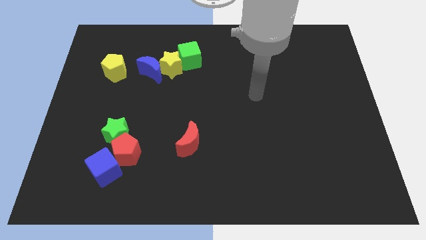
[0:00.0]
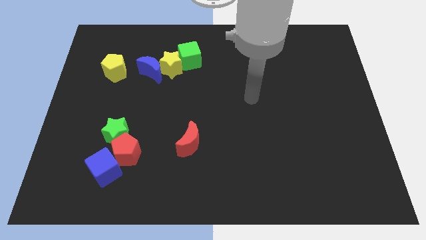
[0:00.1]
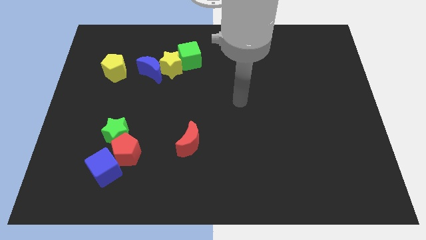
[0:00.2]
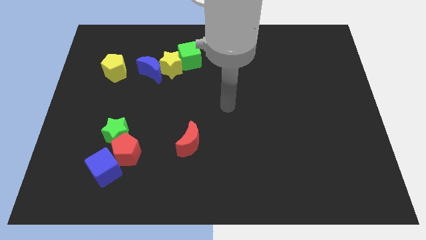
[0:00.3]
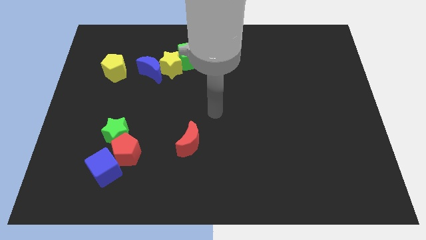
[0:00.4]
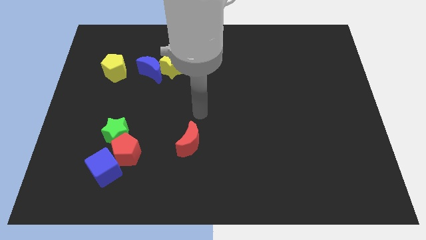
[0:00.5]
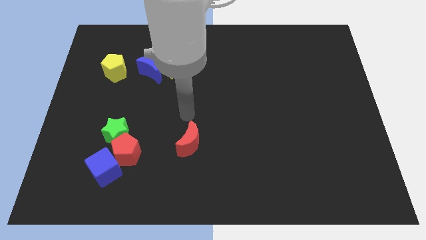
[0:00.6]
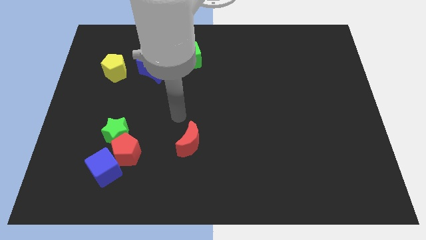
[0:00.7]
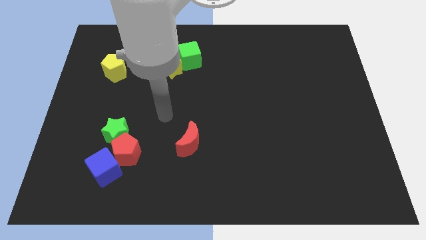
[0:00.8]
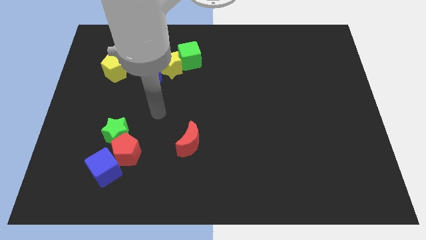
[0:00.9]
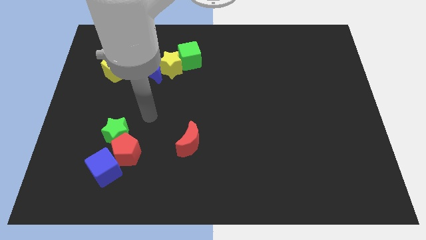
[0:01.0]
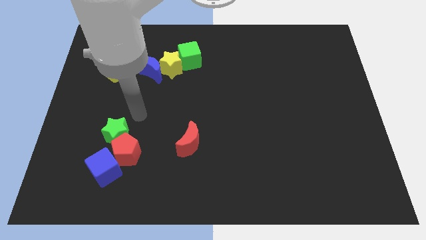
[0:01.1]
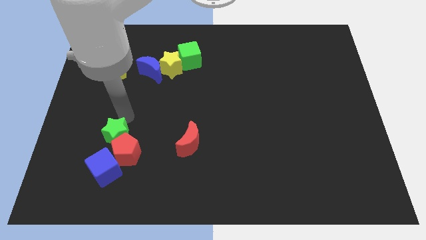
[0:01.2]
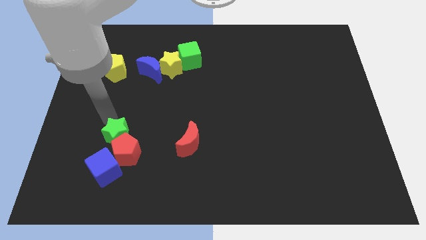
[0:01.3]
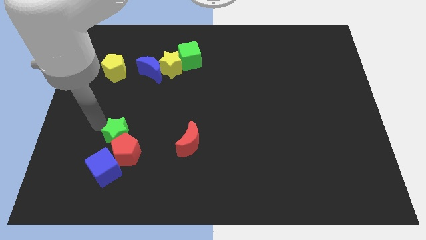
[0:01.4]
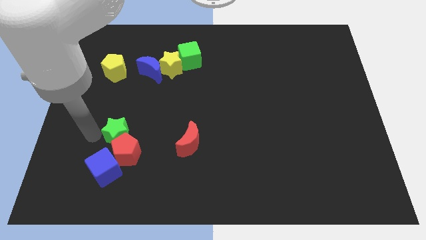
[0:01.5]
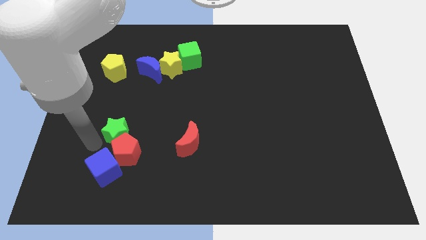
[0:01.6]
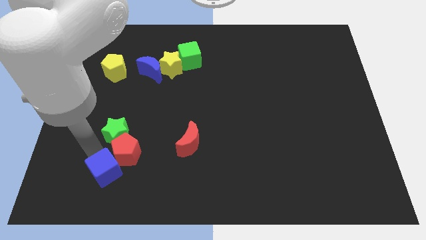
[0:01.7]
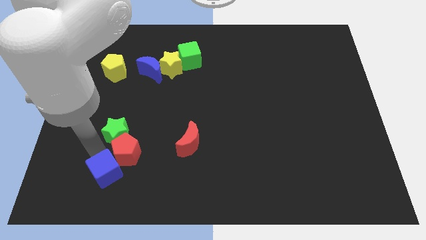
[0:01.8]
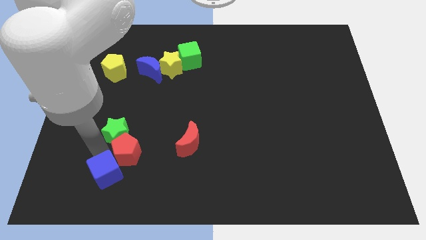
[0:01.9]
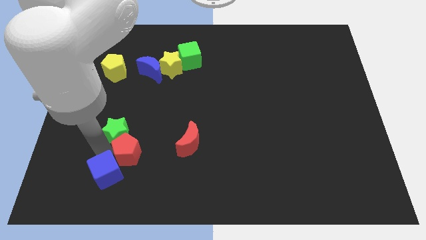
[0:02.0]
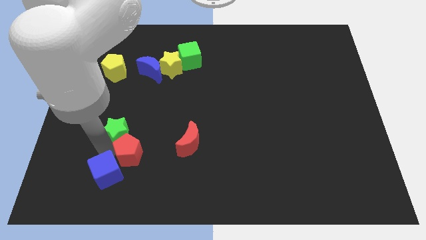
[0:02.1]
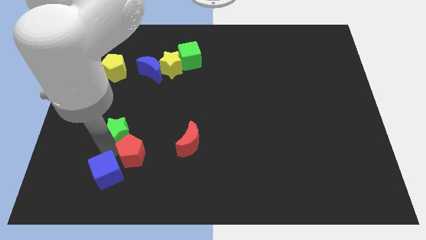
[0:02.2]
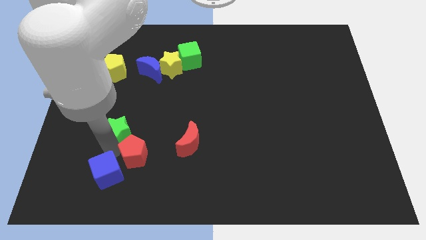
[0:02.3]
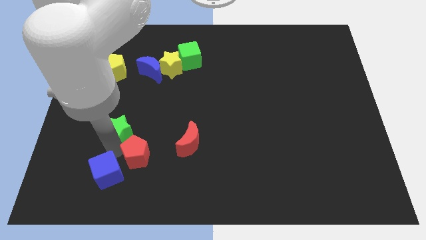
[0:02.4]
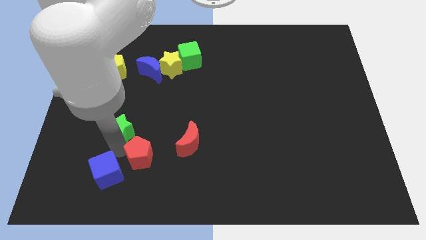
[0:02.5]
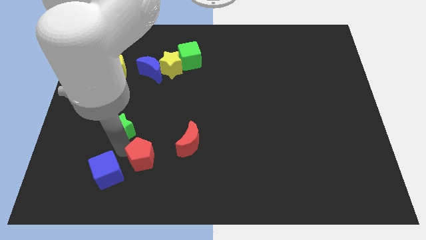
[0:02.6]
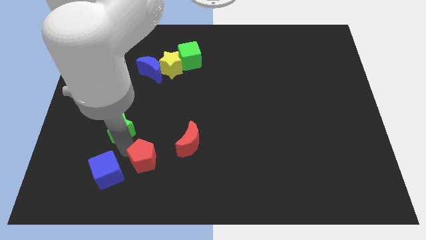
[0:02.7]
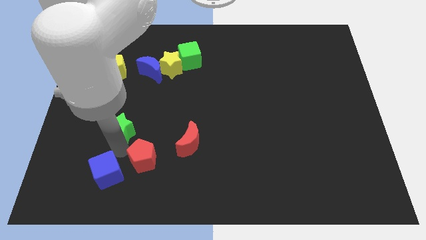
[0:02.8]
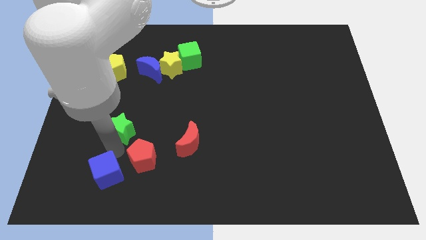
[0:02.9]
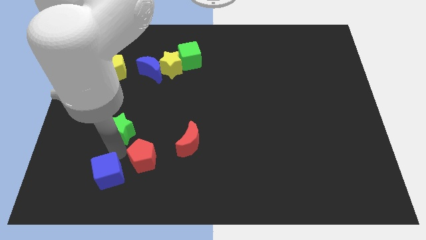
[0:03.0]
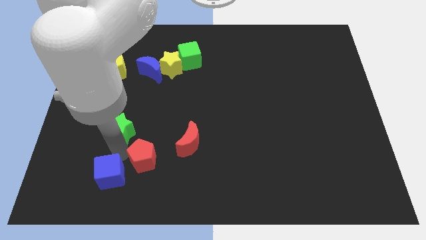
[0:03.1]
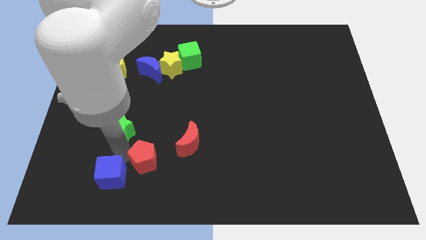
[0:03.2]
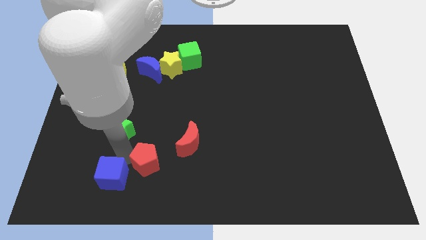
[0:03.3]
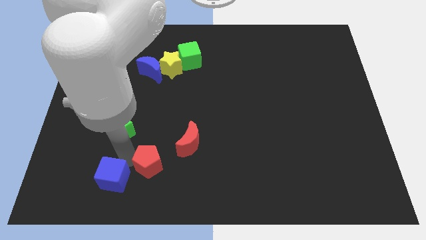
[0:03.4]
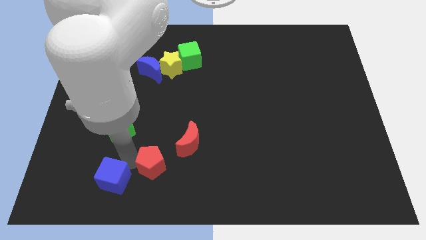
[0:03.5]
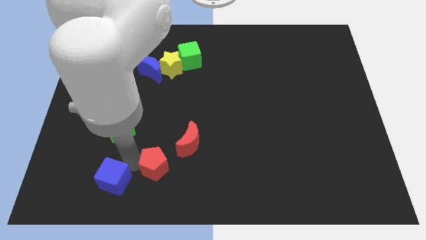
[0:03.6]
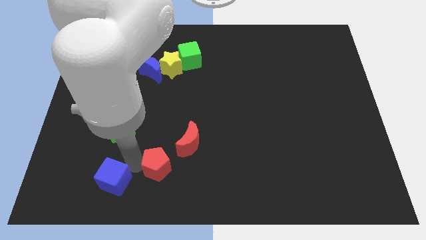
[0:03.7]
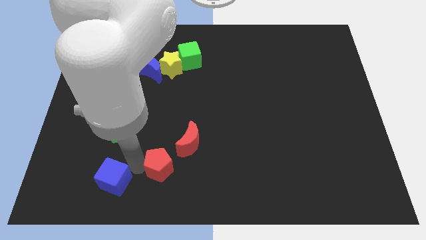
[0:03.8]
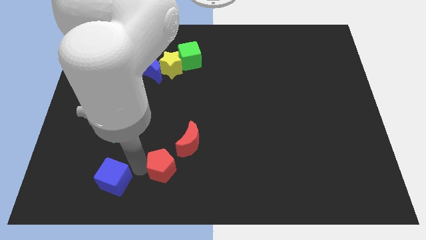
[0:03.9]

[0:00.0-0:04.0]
separate the red pentagon from the green star and blue cube

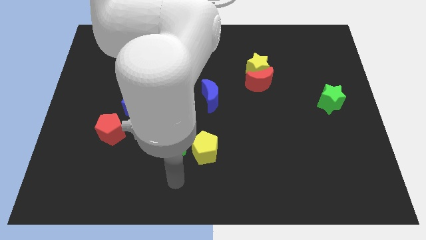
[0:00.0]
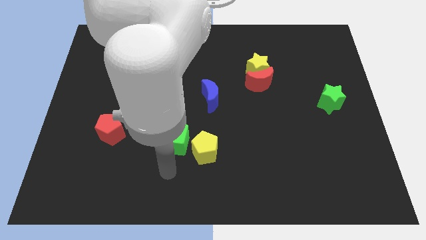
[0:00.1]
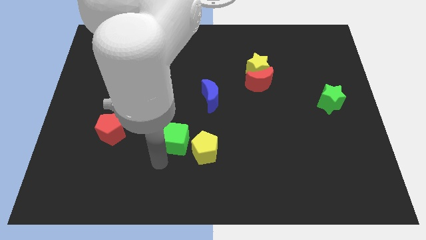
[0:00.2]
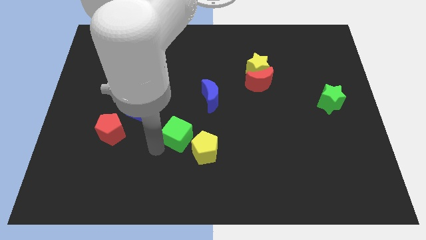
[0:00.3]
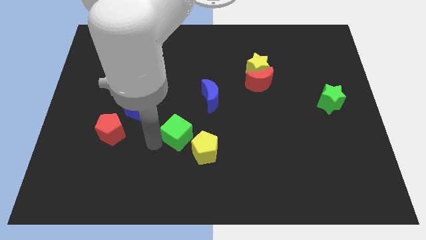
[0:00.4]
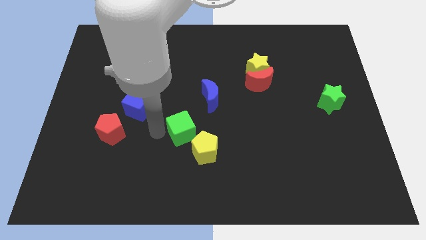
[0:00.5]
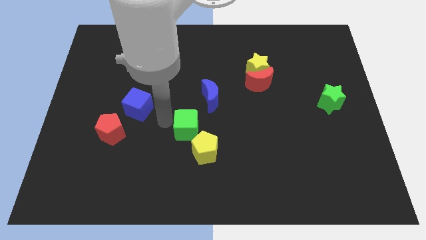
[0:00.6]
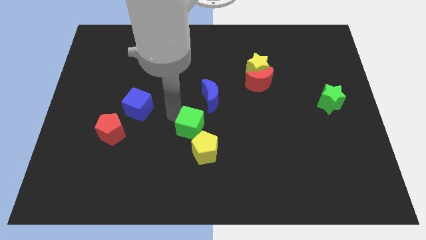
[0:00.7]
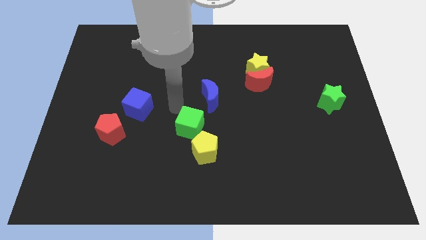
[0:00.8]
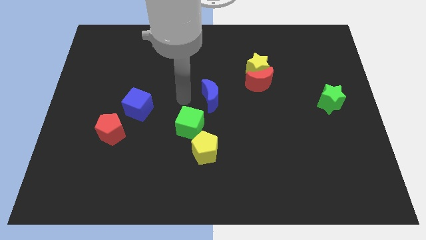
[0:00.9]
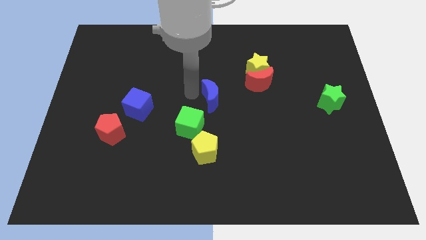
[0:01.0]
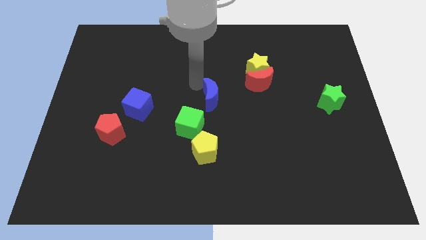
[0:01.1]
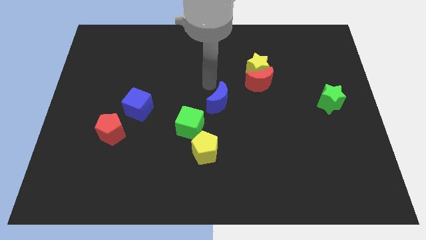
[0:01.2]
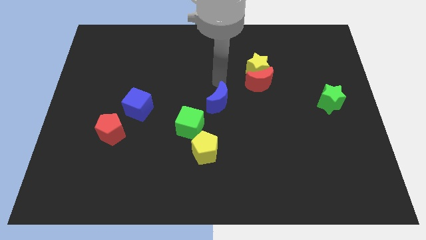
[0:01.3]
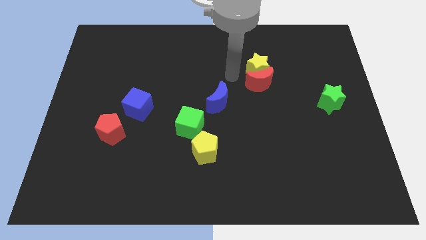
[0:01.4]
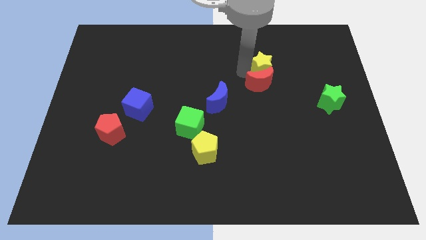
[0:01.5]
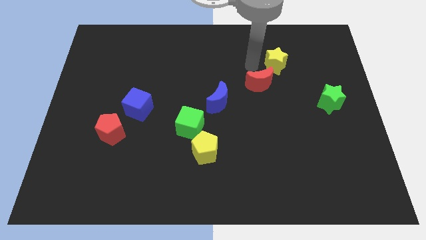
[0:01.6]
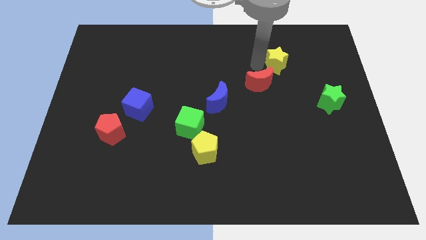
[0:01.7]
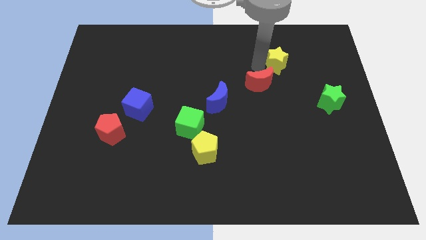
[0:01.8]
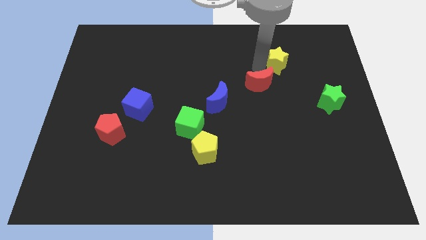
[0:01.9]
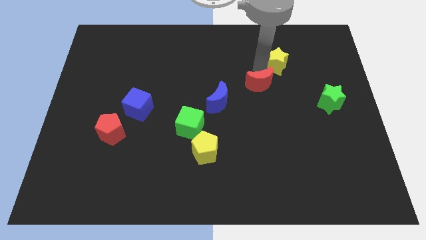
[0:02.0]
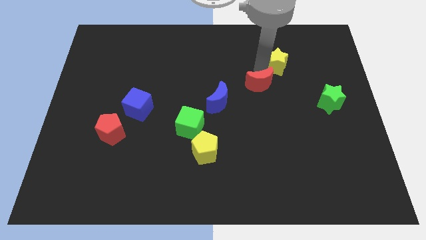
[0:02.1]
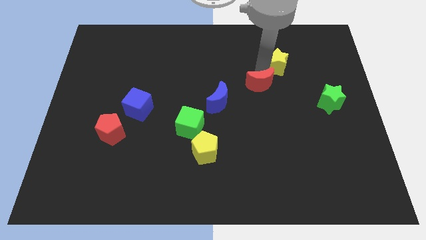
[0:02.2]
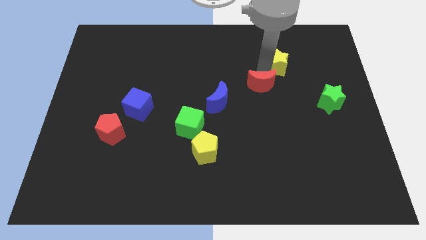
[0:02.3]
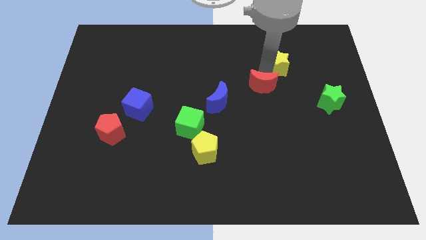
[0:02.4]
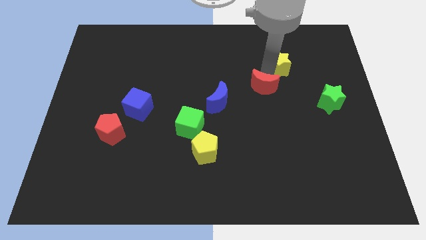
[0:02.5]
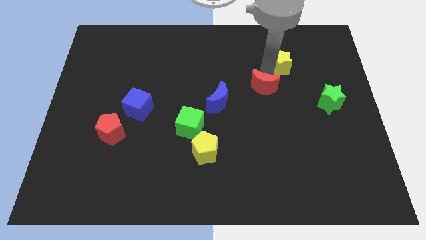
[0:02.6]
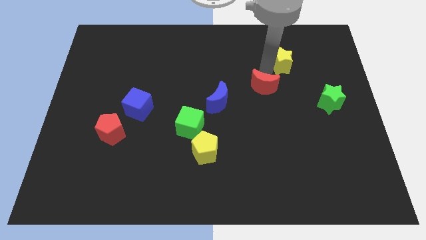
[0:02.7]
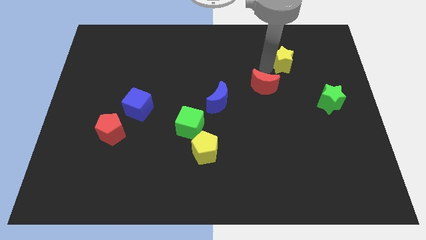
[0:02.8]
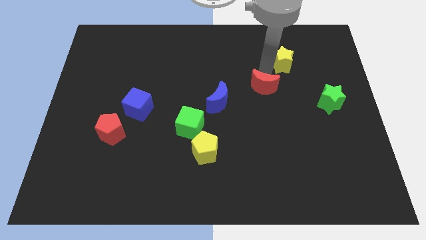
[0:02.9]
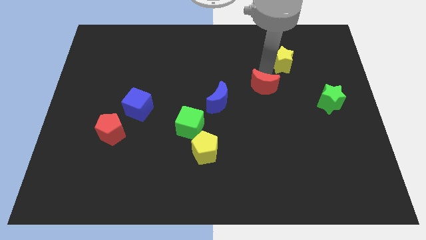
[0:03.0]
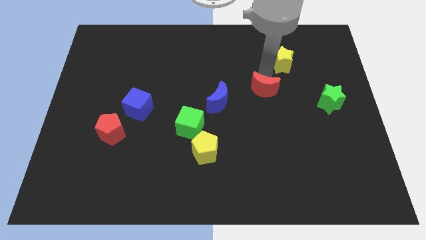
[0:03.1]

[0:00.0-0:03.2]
separate the red moon from the yellow star

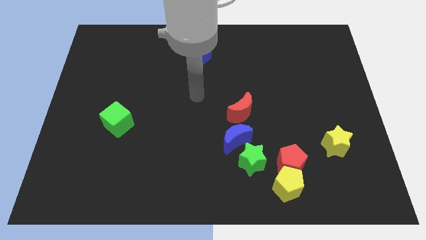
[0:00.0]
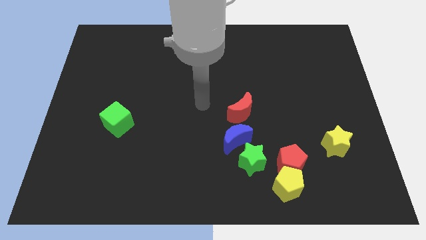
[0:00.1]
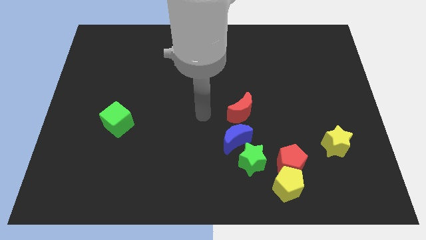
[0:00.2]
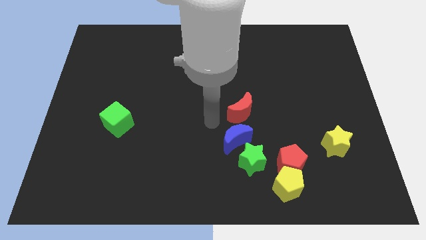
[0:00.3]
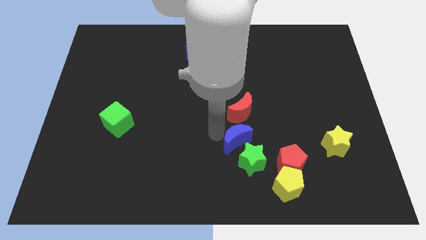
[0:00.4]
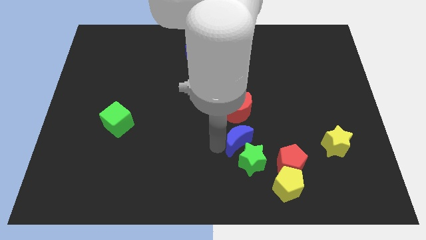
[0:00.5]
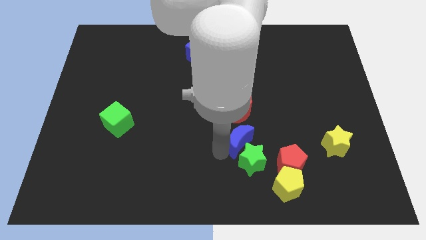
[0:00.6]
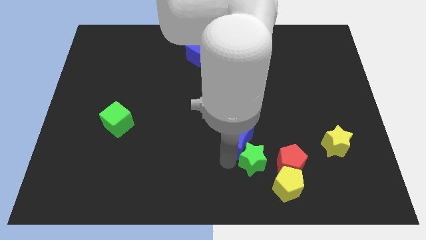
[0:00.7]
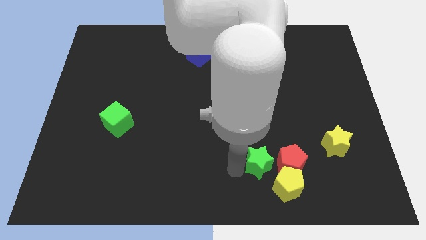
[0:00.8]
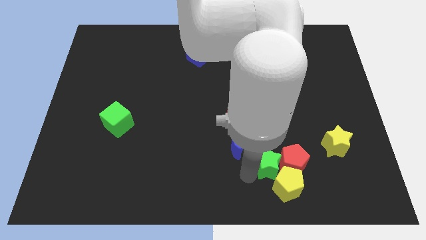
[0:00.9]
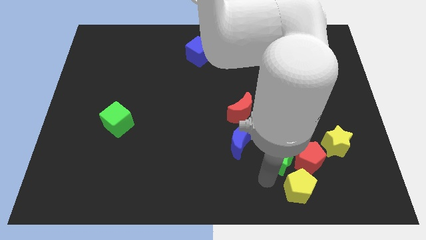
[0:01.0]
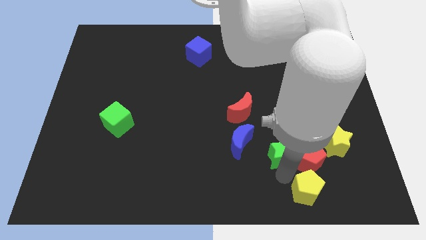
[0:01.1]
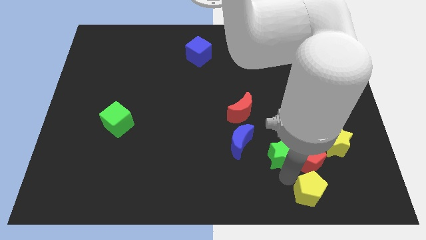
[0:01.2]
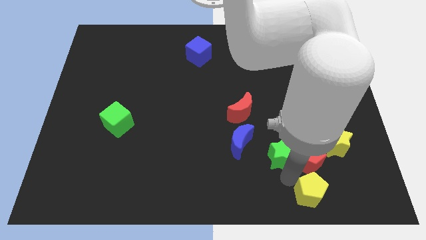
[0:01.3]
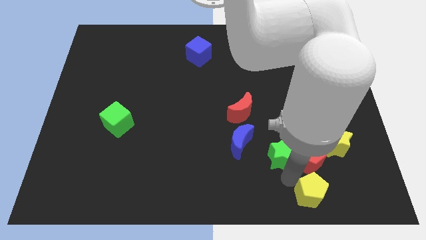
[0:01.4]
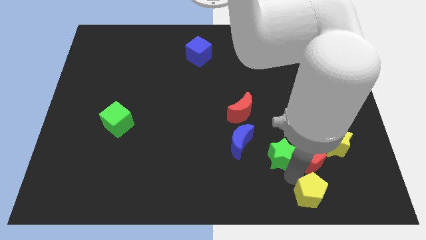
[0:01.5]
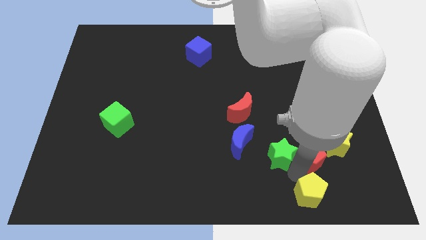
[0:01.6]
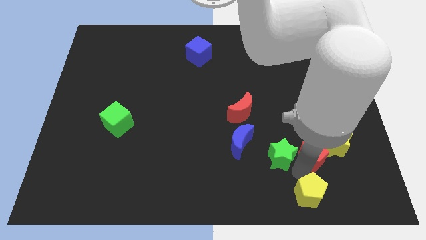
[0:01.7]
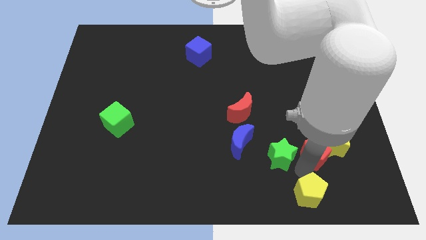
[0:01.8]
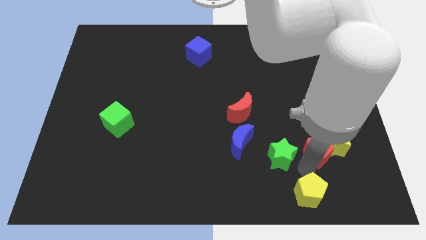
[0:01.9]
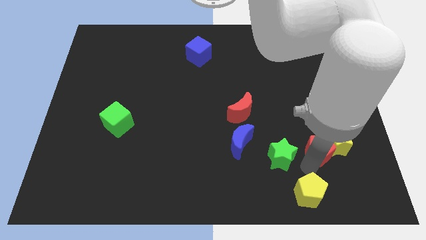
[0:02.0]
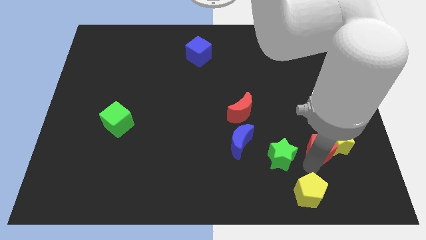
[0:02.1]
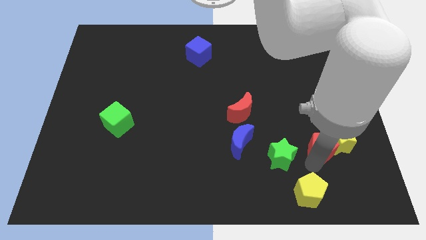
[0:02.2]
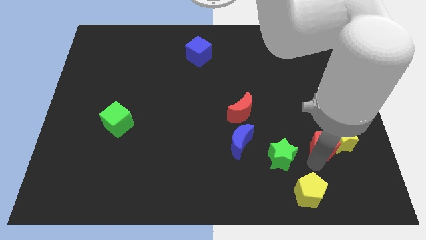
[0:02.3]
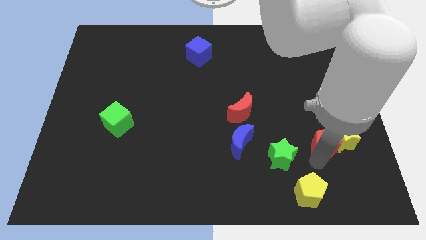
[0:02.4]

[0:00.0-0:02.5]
move the red pentagon away from the yellow pentagon and green star
